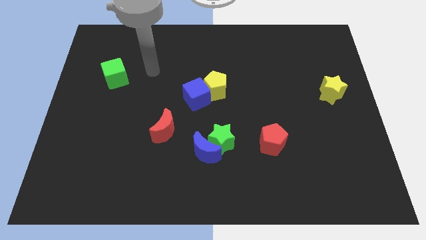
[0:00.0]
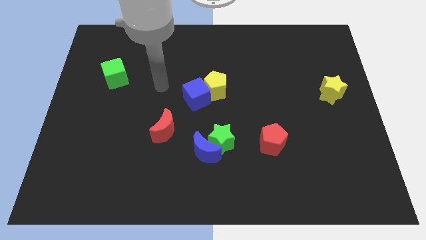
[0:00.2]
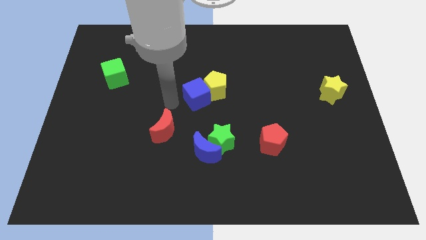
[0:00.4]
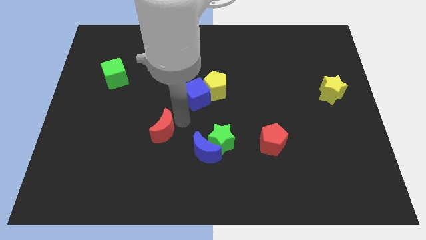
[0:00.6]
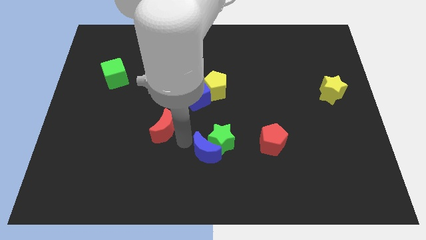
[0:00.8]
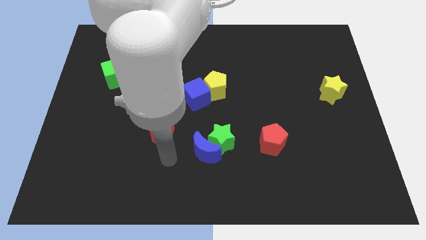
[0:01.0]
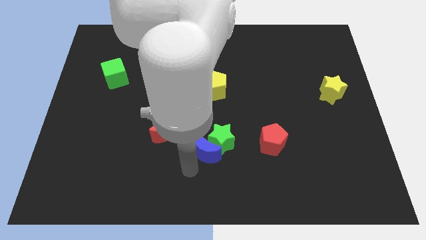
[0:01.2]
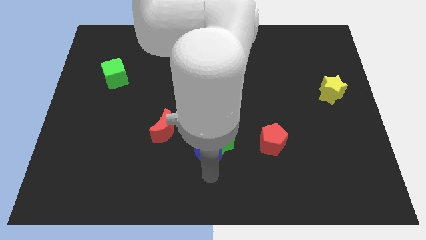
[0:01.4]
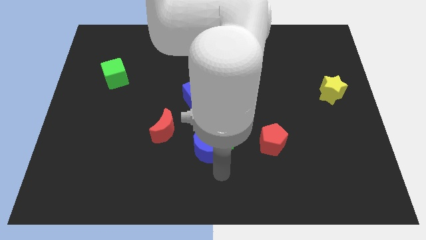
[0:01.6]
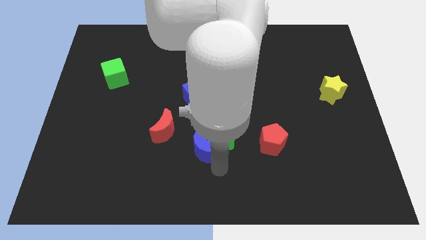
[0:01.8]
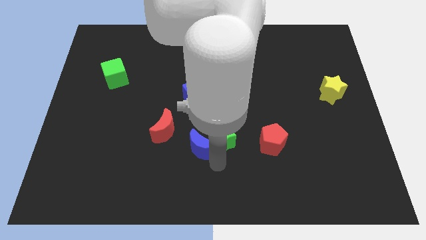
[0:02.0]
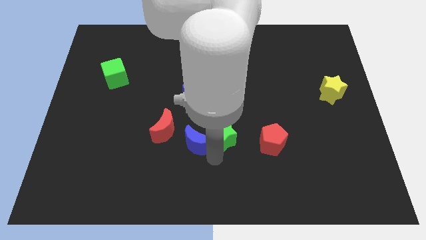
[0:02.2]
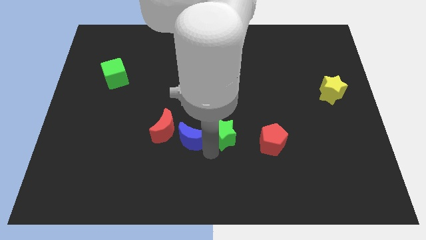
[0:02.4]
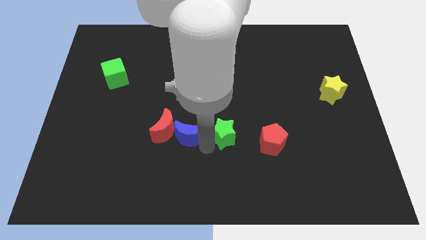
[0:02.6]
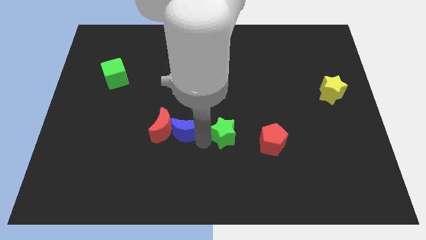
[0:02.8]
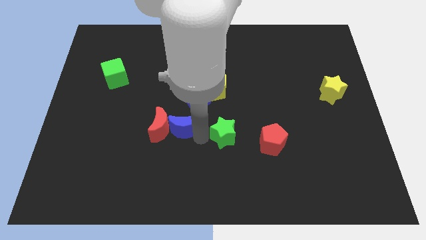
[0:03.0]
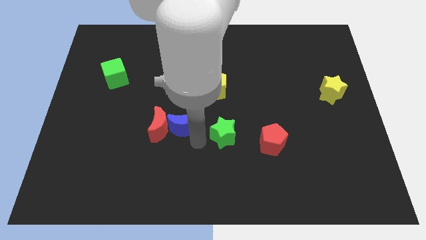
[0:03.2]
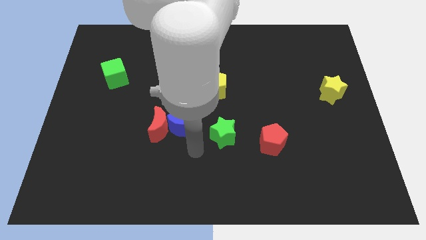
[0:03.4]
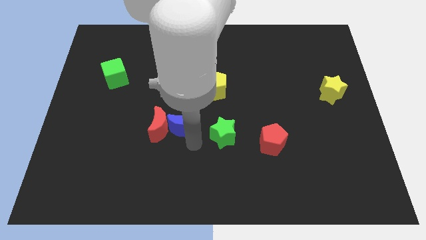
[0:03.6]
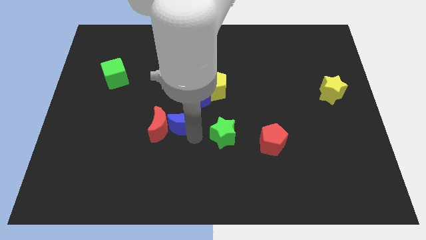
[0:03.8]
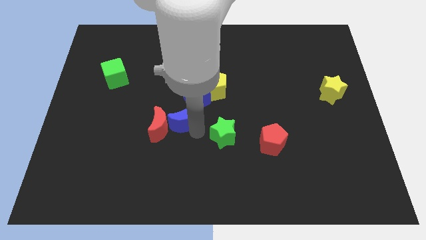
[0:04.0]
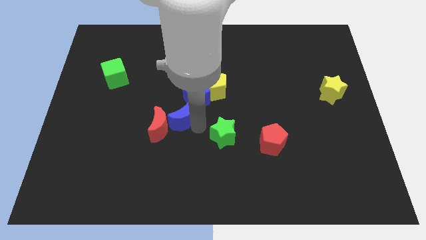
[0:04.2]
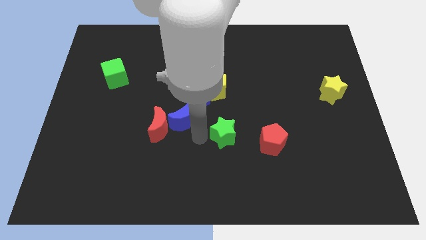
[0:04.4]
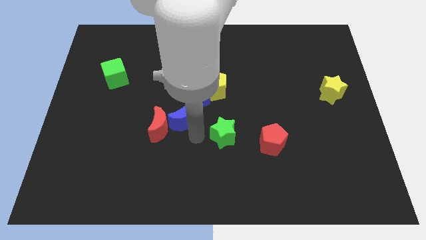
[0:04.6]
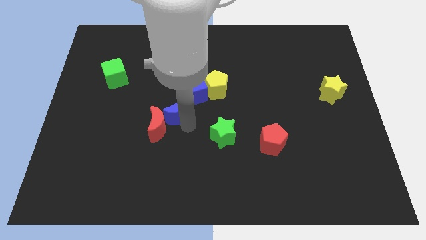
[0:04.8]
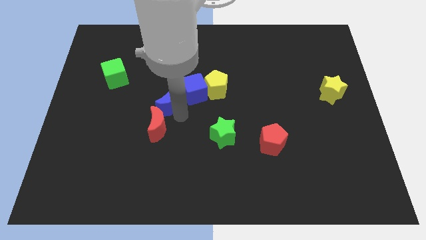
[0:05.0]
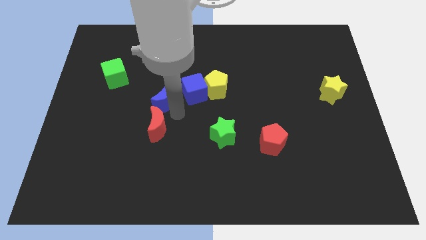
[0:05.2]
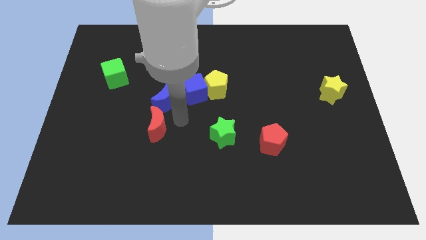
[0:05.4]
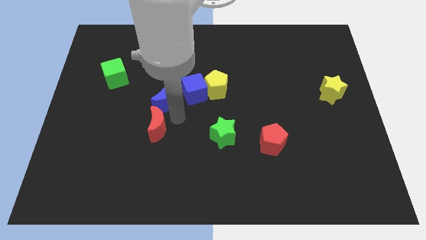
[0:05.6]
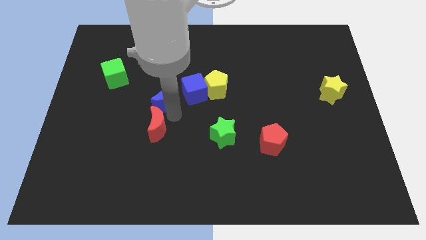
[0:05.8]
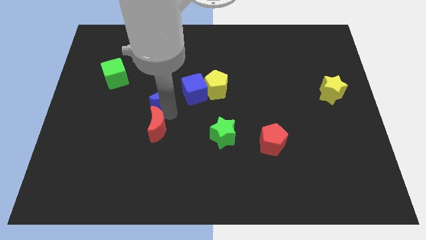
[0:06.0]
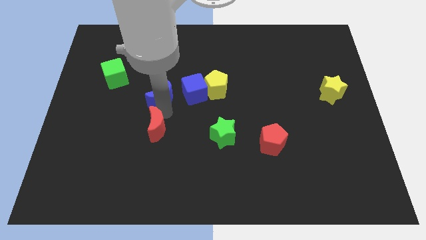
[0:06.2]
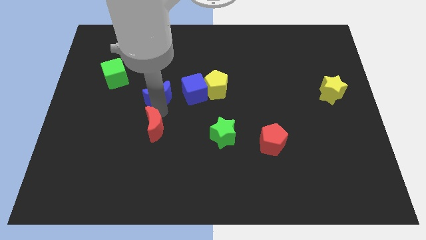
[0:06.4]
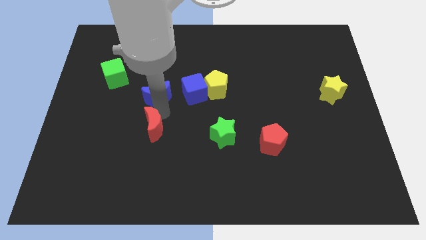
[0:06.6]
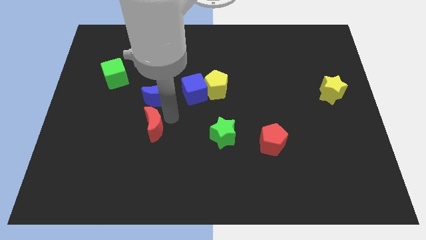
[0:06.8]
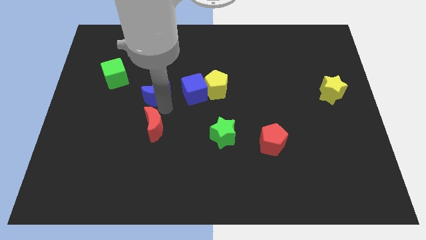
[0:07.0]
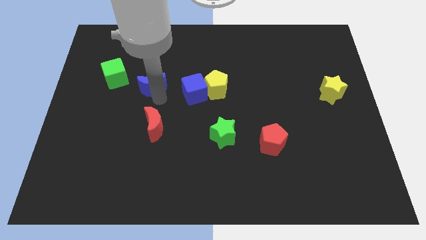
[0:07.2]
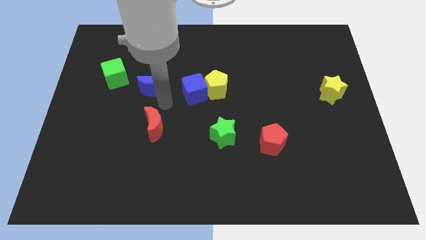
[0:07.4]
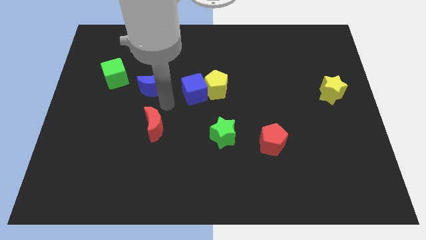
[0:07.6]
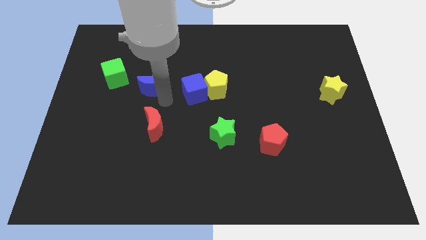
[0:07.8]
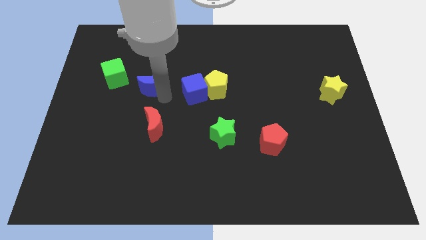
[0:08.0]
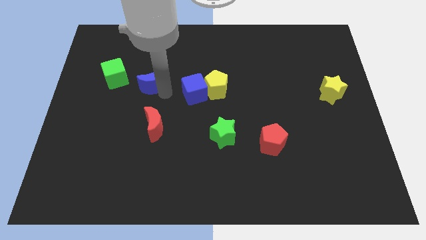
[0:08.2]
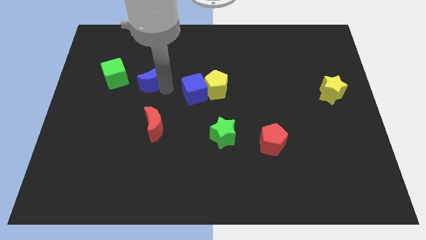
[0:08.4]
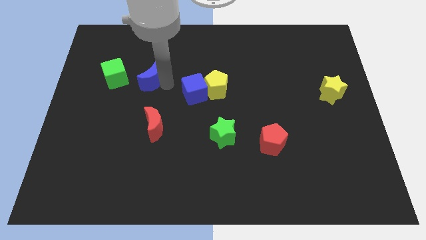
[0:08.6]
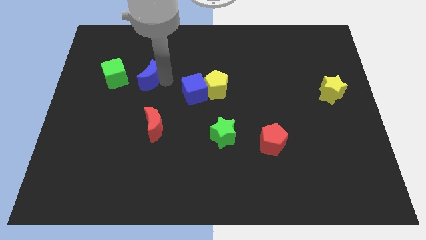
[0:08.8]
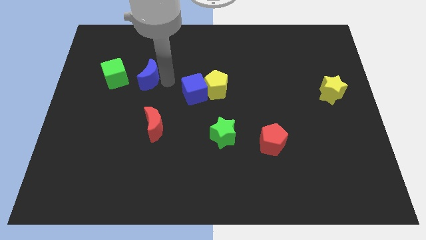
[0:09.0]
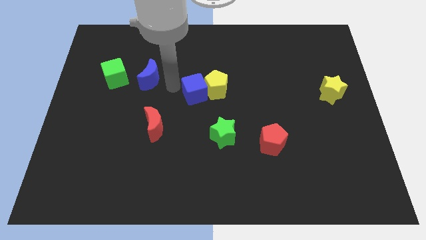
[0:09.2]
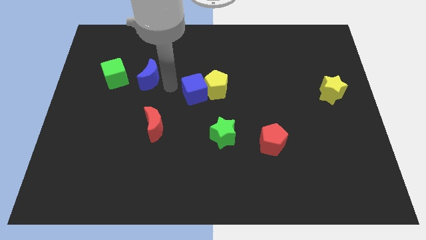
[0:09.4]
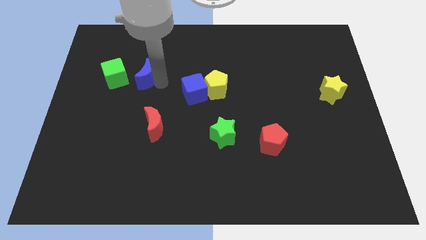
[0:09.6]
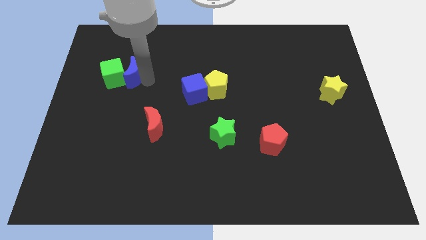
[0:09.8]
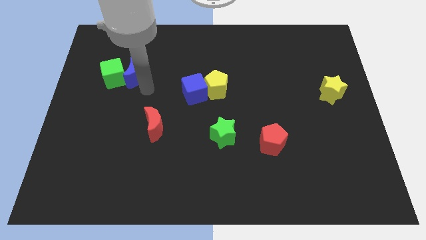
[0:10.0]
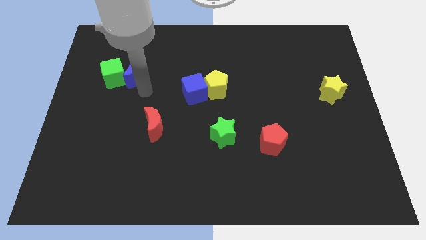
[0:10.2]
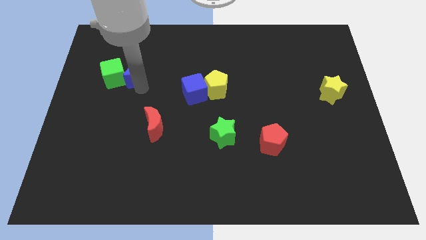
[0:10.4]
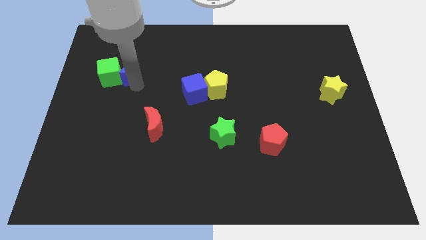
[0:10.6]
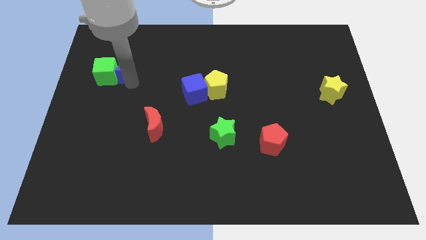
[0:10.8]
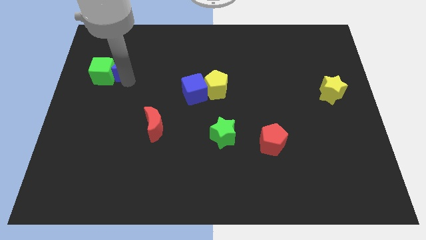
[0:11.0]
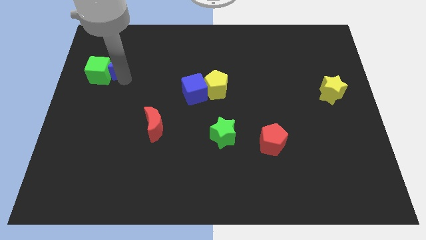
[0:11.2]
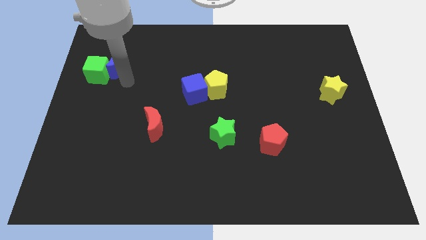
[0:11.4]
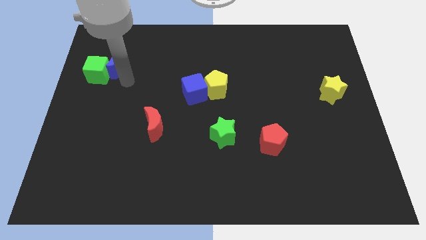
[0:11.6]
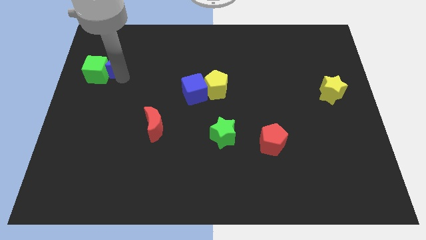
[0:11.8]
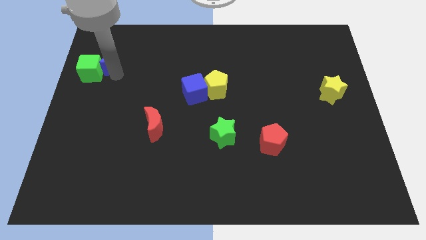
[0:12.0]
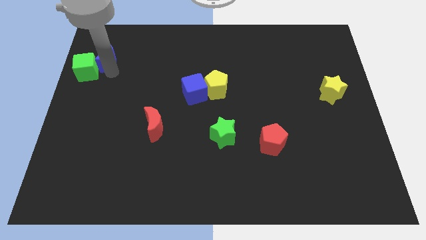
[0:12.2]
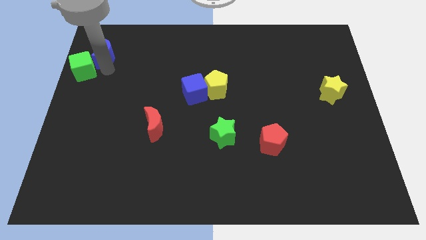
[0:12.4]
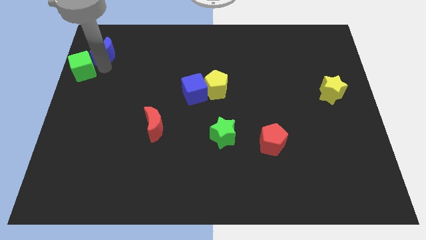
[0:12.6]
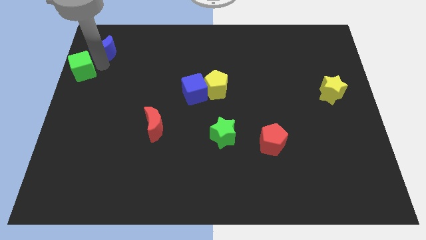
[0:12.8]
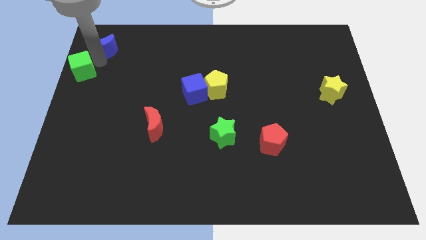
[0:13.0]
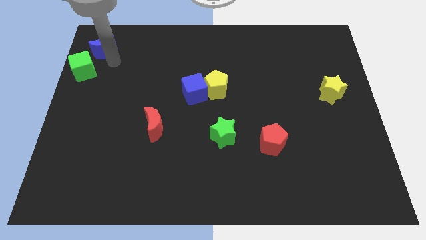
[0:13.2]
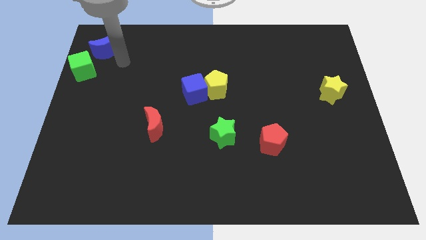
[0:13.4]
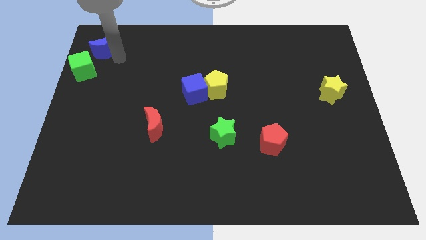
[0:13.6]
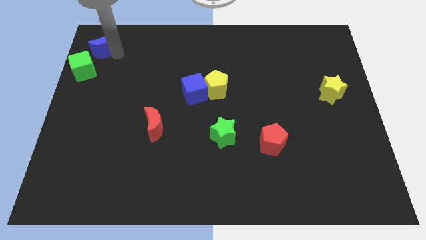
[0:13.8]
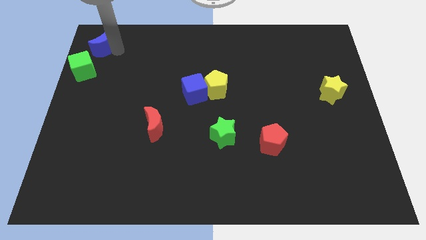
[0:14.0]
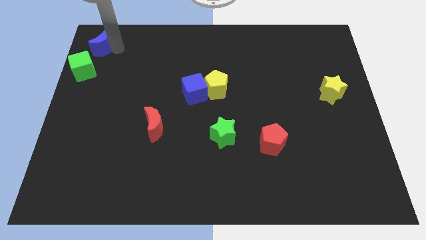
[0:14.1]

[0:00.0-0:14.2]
move the blue moon to the top left of the board

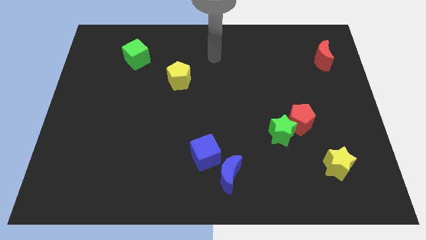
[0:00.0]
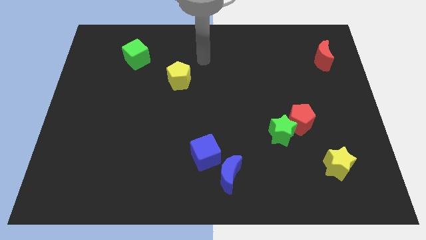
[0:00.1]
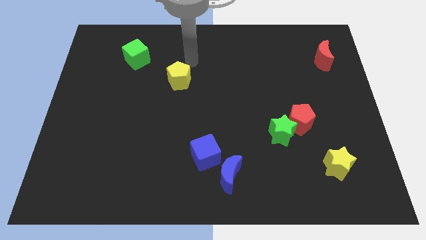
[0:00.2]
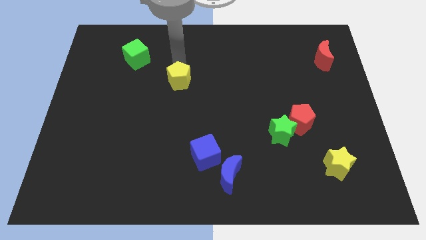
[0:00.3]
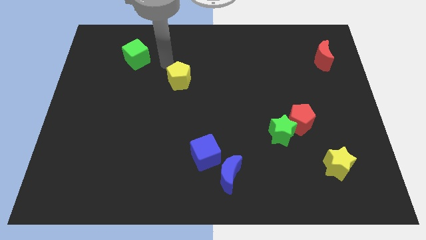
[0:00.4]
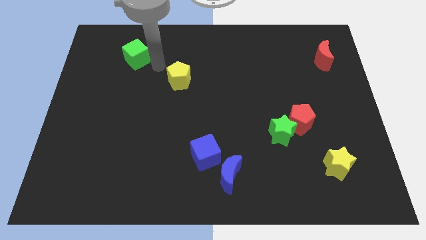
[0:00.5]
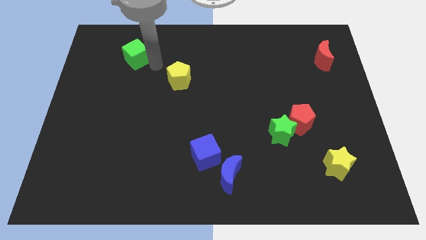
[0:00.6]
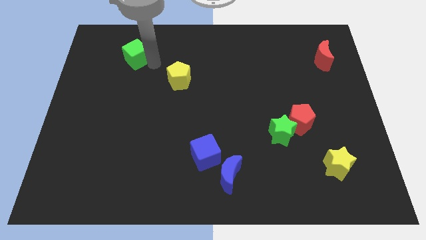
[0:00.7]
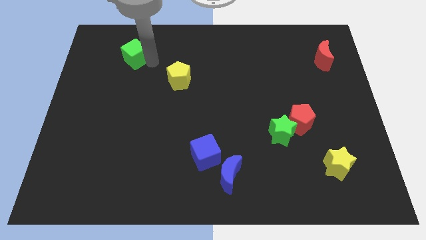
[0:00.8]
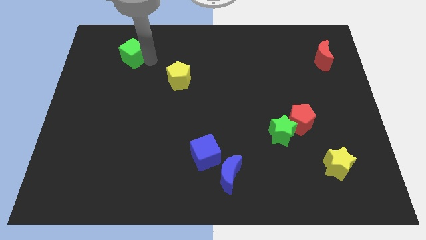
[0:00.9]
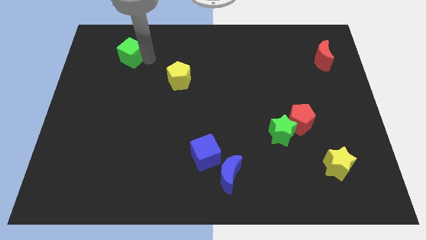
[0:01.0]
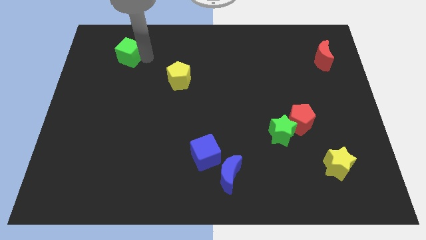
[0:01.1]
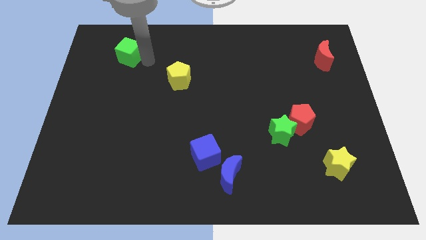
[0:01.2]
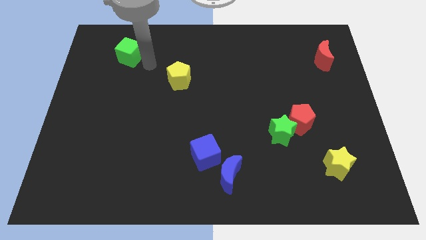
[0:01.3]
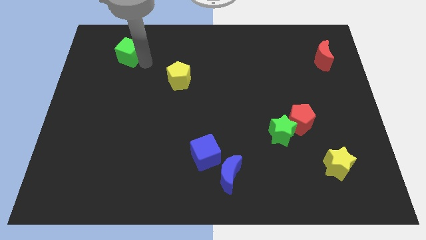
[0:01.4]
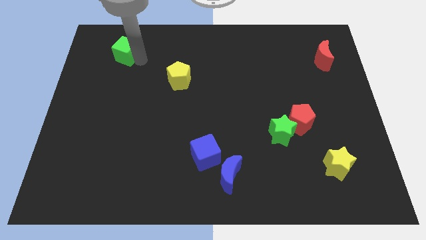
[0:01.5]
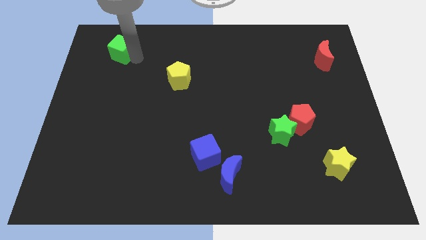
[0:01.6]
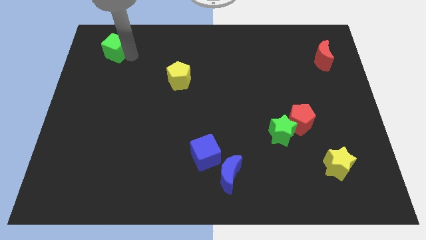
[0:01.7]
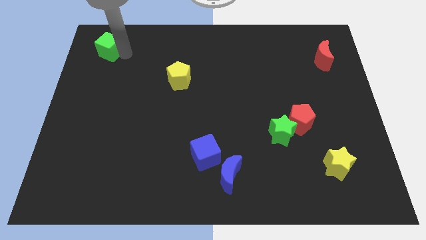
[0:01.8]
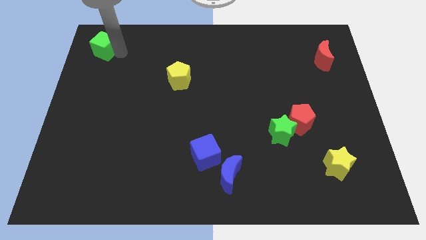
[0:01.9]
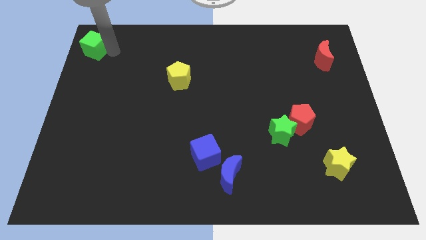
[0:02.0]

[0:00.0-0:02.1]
push the green cube to the upper left corner
